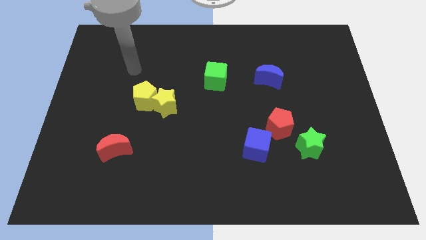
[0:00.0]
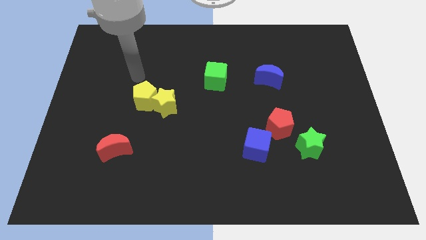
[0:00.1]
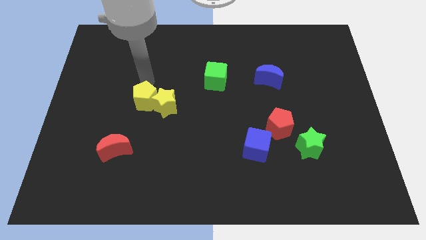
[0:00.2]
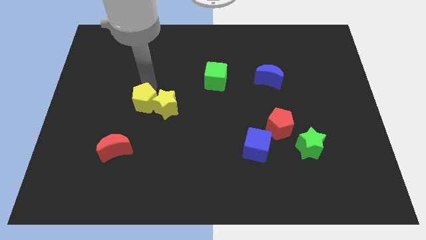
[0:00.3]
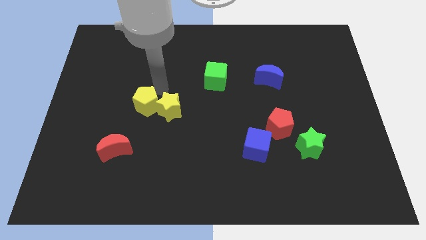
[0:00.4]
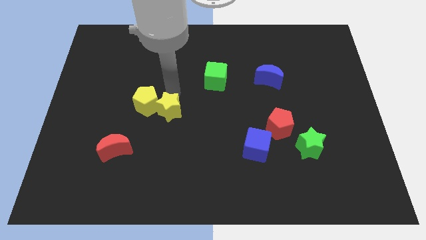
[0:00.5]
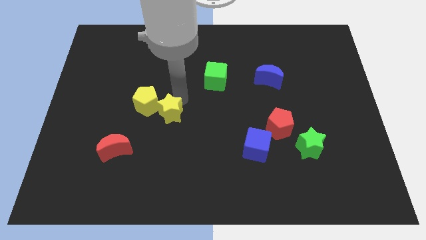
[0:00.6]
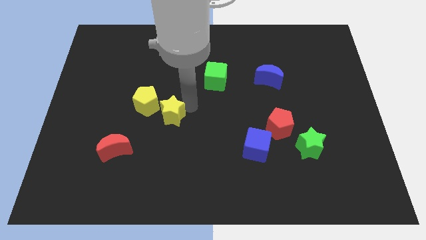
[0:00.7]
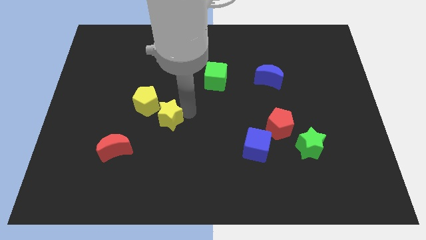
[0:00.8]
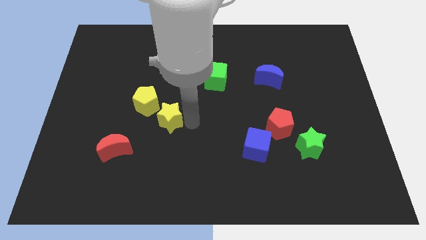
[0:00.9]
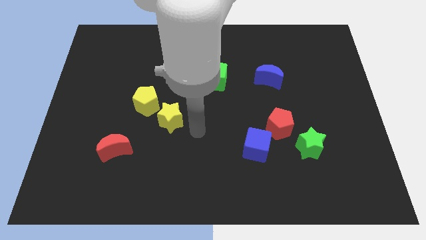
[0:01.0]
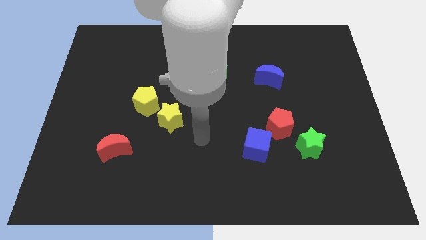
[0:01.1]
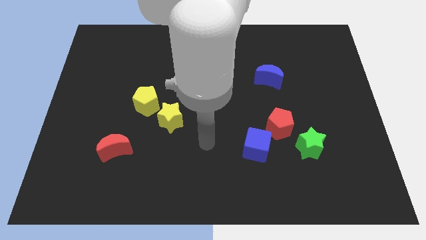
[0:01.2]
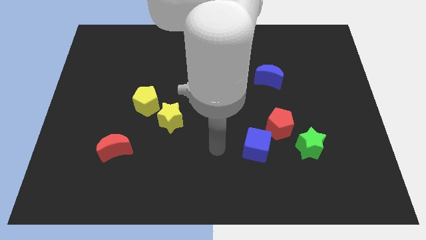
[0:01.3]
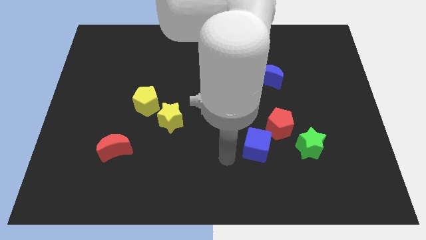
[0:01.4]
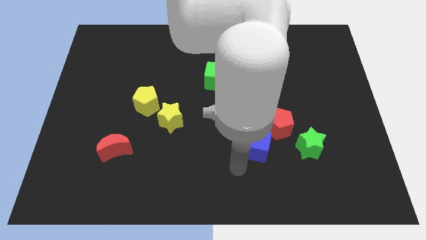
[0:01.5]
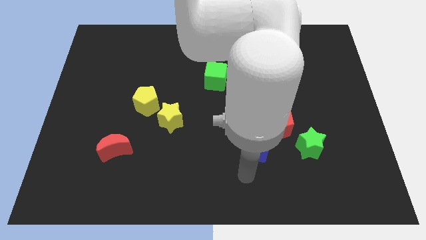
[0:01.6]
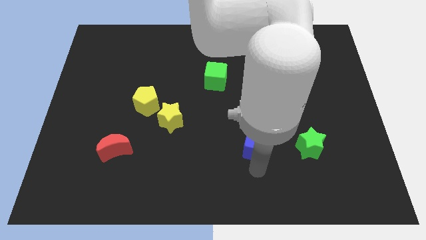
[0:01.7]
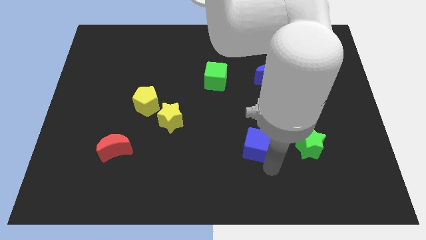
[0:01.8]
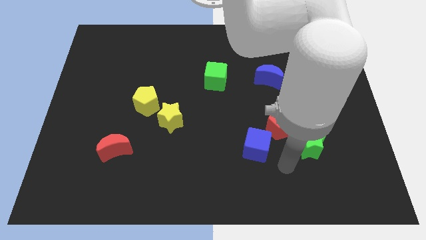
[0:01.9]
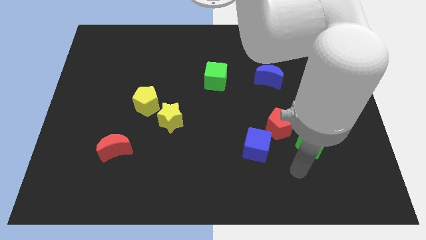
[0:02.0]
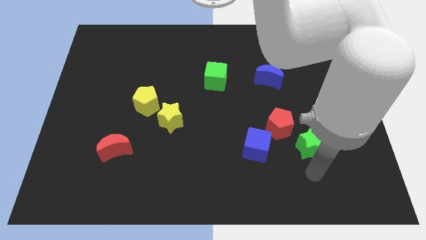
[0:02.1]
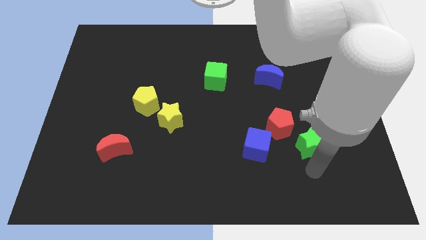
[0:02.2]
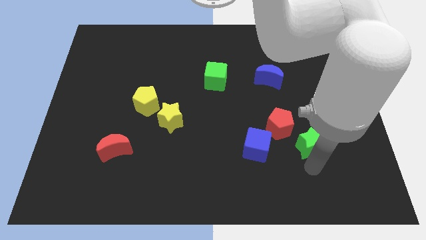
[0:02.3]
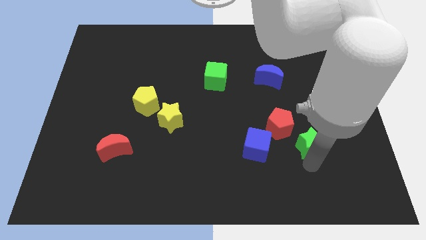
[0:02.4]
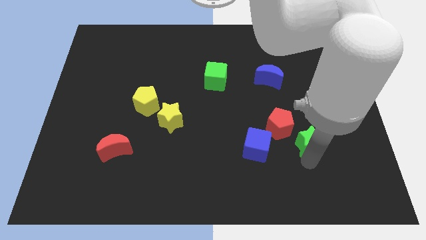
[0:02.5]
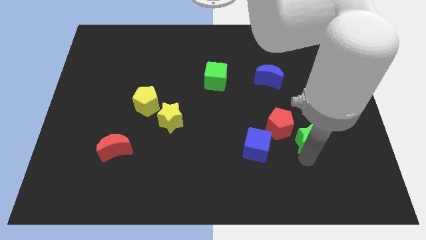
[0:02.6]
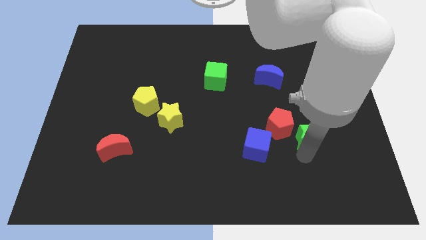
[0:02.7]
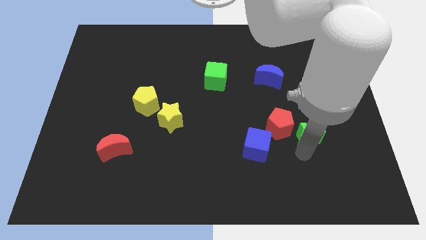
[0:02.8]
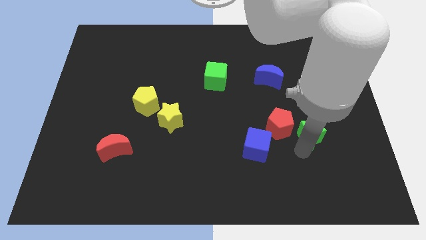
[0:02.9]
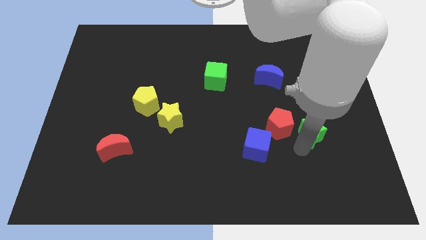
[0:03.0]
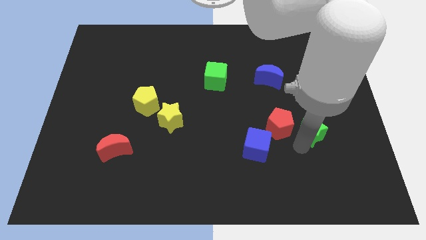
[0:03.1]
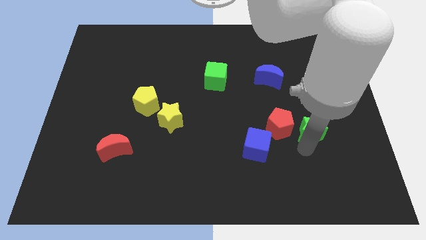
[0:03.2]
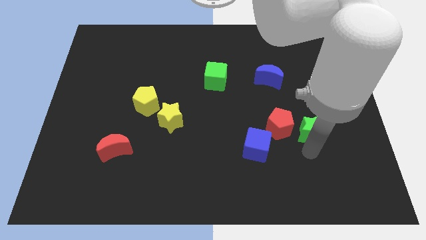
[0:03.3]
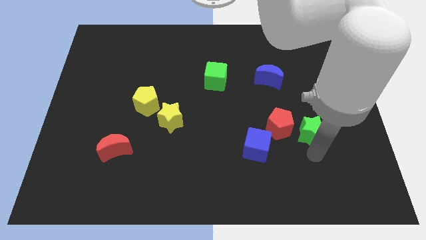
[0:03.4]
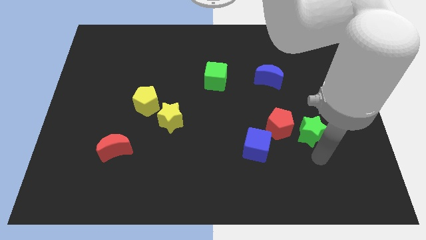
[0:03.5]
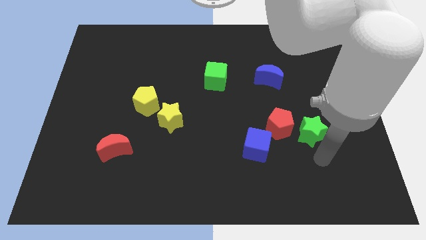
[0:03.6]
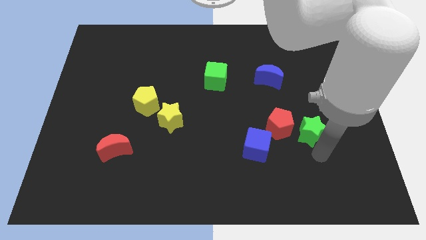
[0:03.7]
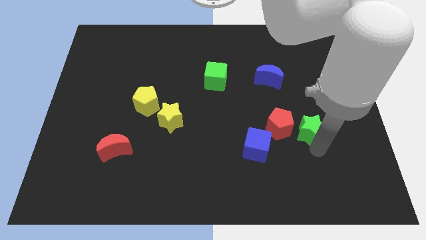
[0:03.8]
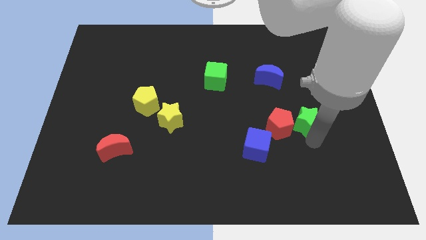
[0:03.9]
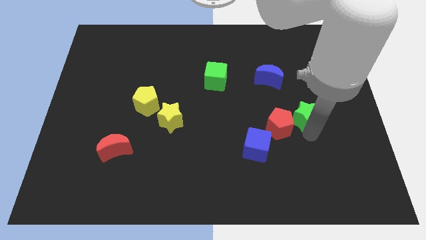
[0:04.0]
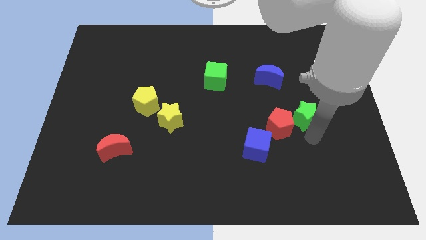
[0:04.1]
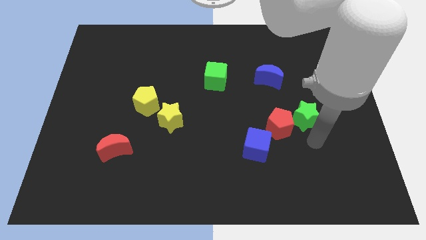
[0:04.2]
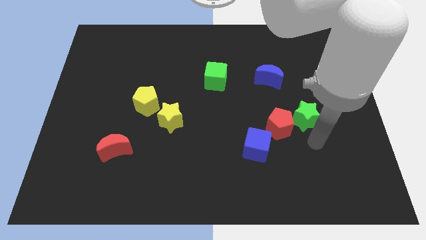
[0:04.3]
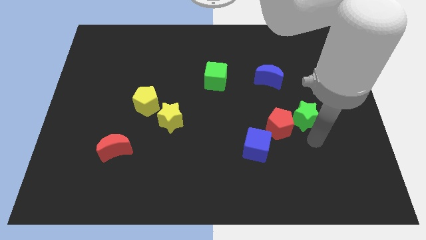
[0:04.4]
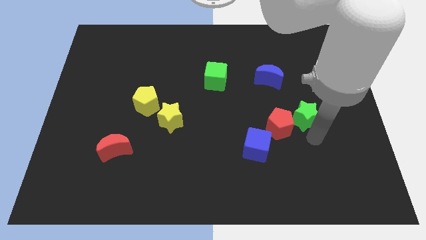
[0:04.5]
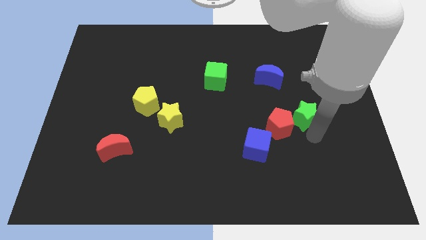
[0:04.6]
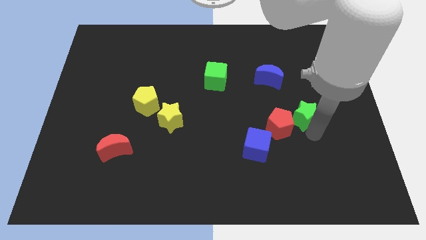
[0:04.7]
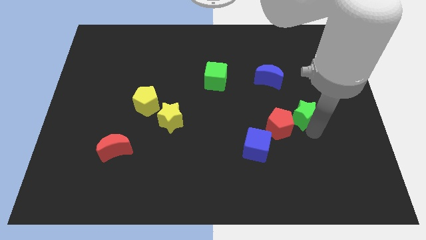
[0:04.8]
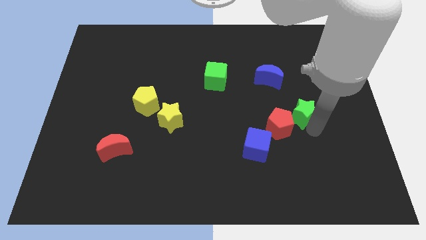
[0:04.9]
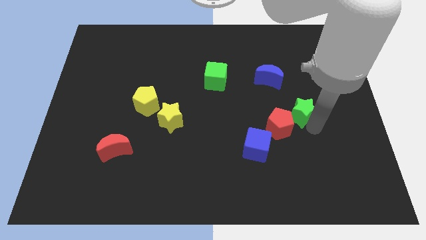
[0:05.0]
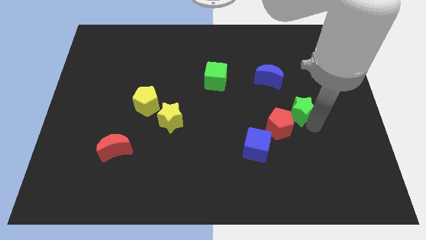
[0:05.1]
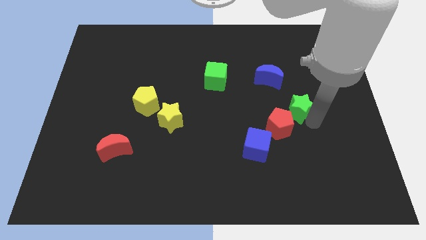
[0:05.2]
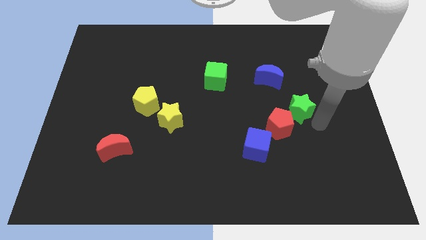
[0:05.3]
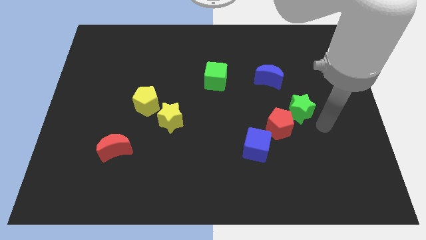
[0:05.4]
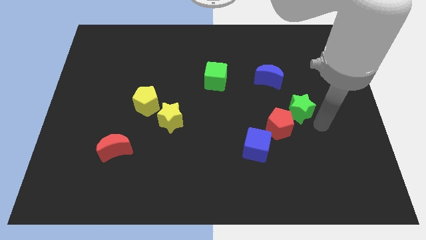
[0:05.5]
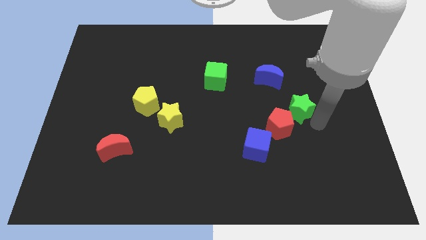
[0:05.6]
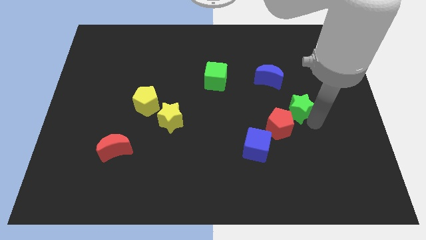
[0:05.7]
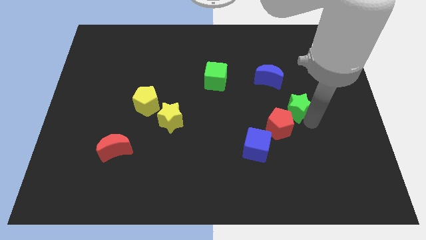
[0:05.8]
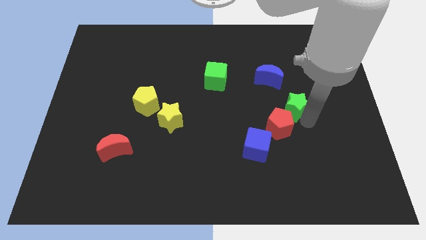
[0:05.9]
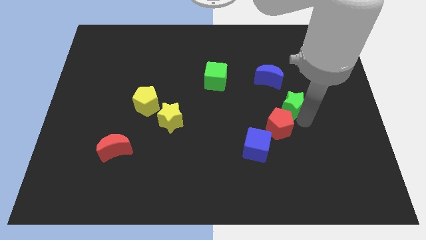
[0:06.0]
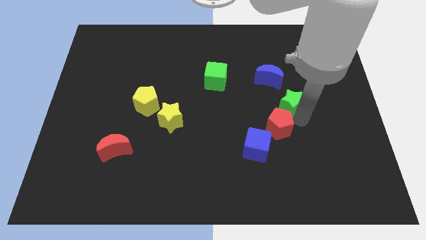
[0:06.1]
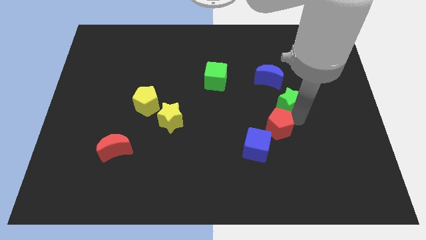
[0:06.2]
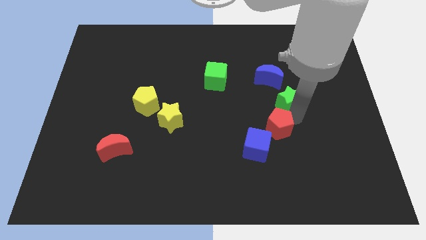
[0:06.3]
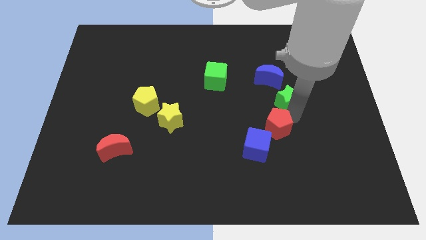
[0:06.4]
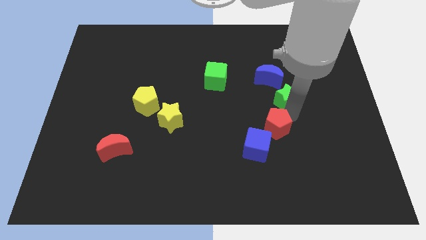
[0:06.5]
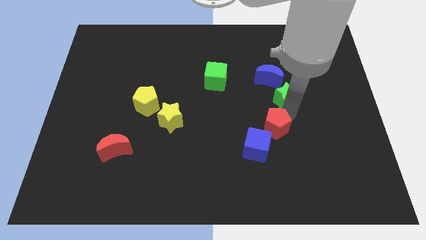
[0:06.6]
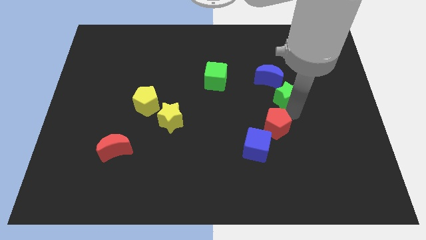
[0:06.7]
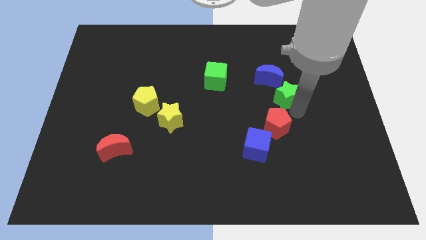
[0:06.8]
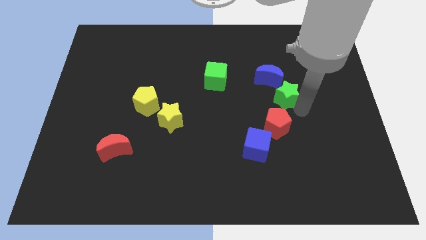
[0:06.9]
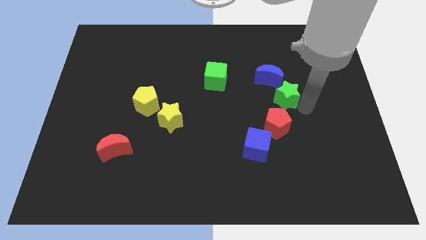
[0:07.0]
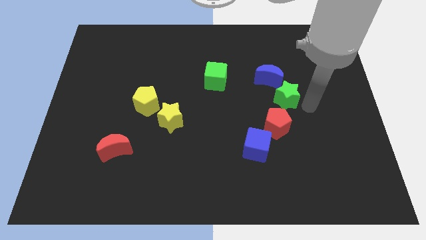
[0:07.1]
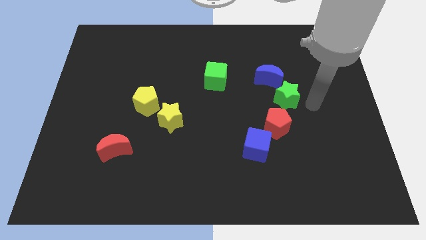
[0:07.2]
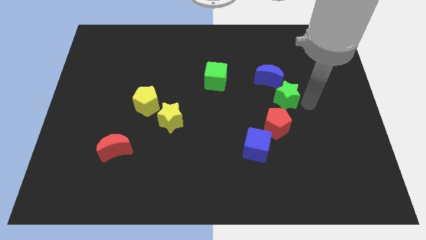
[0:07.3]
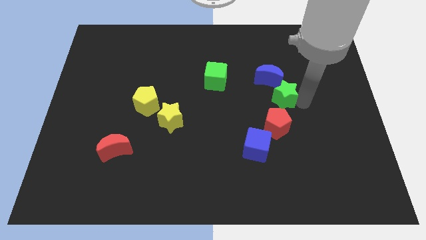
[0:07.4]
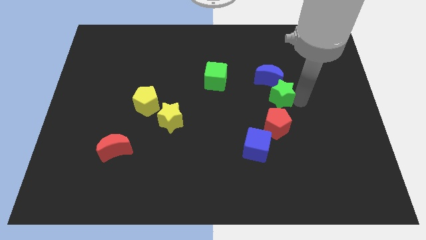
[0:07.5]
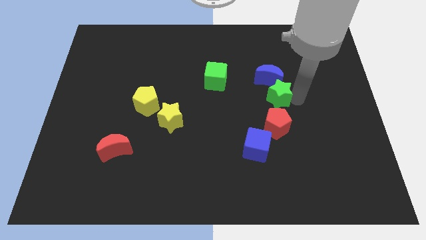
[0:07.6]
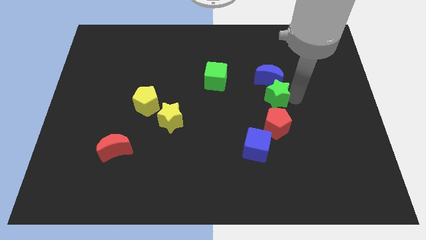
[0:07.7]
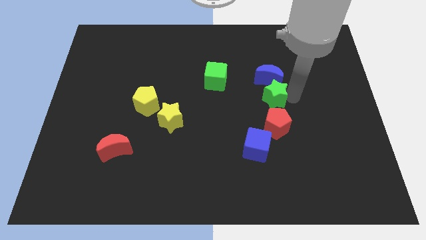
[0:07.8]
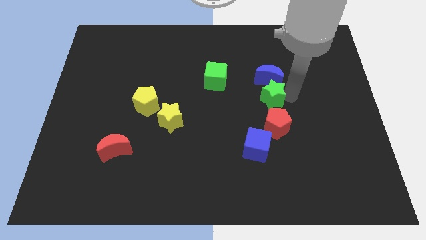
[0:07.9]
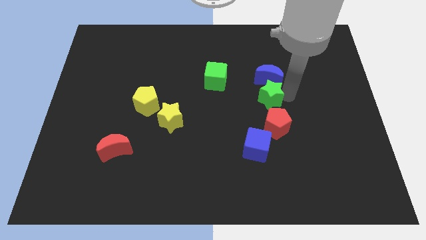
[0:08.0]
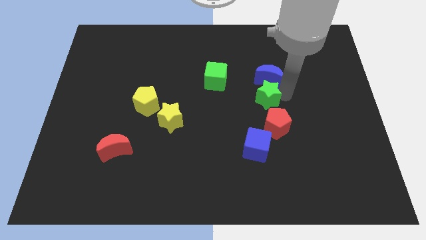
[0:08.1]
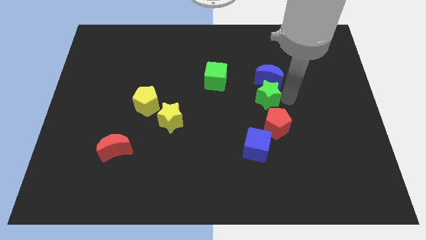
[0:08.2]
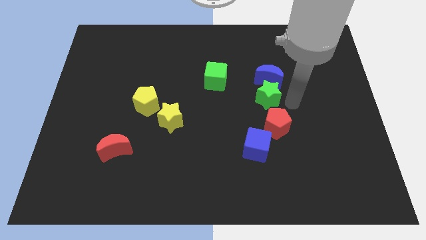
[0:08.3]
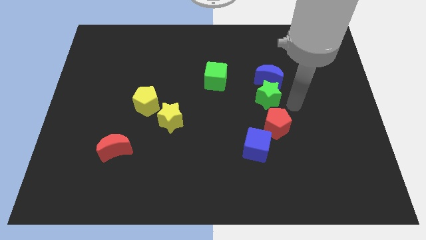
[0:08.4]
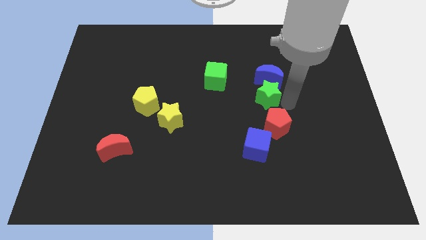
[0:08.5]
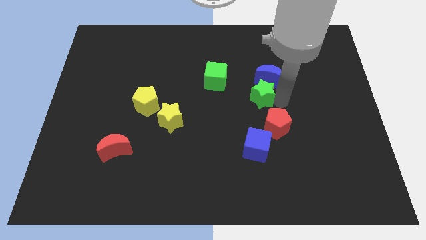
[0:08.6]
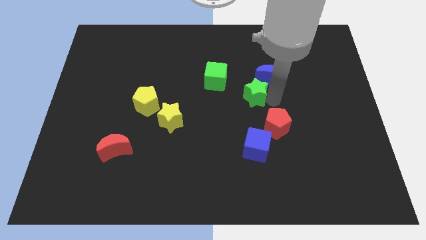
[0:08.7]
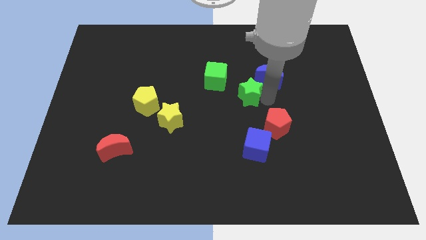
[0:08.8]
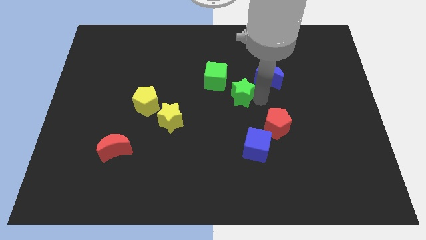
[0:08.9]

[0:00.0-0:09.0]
move the green star up and then left
